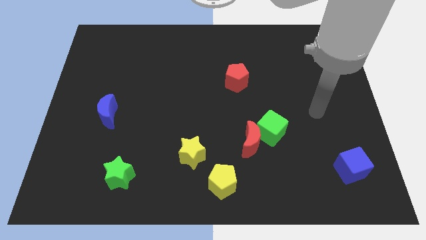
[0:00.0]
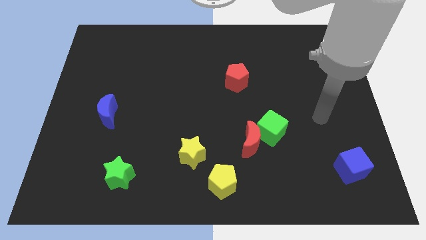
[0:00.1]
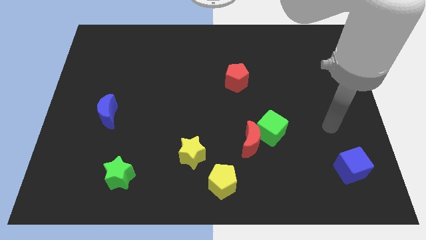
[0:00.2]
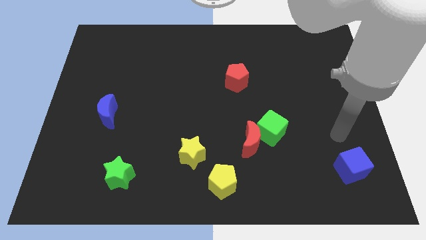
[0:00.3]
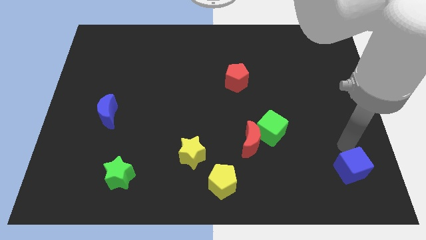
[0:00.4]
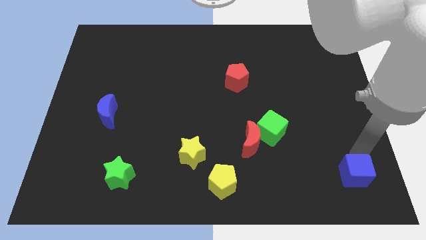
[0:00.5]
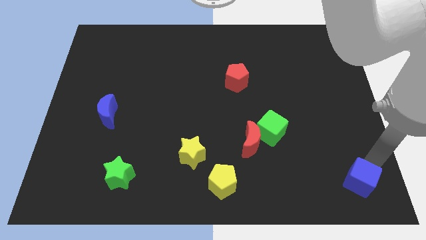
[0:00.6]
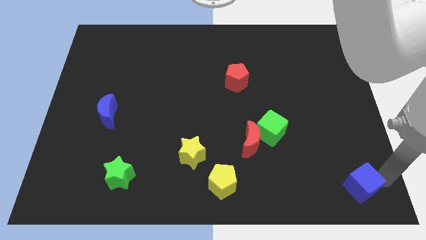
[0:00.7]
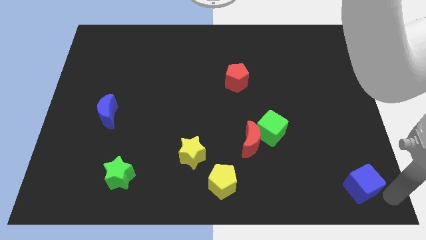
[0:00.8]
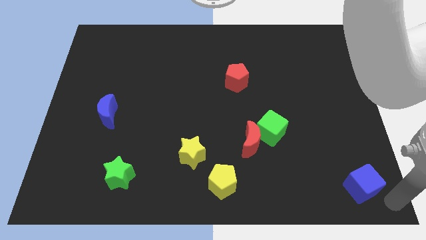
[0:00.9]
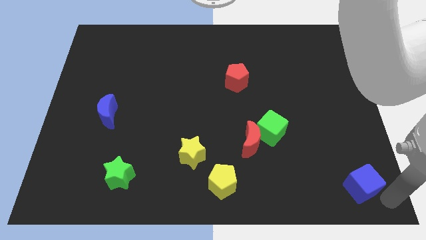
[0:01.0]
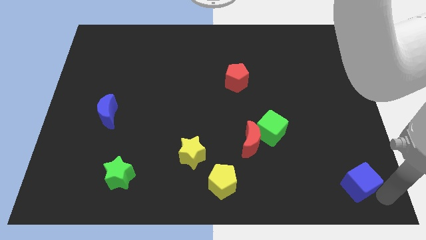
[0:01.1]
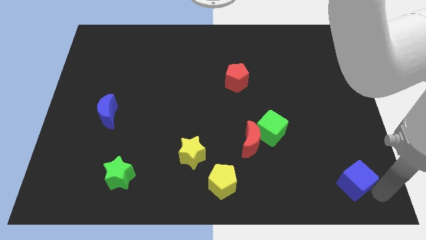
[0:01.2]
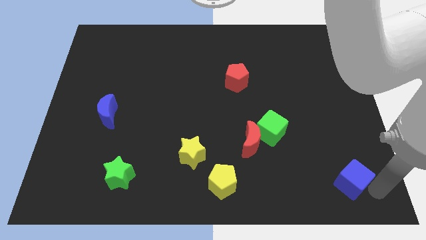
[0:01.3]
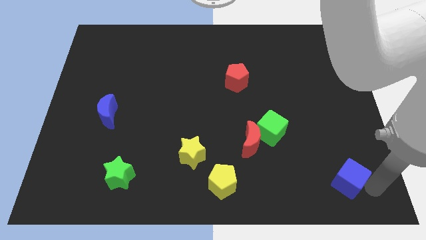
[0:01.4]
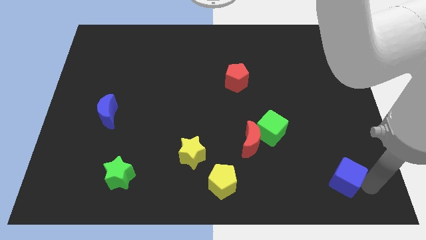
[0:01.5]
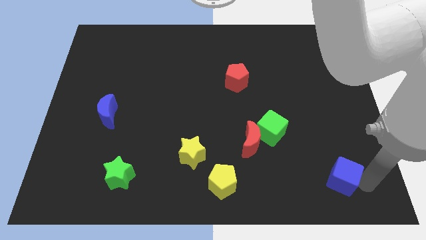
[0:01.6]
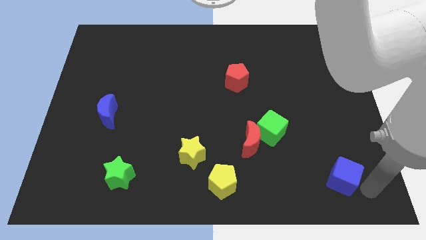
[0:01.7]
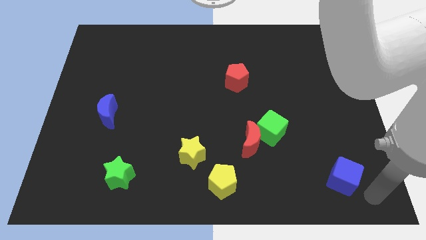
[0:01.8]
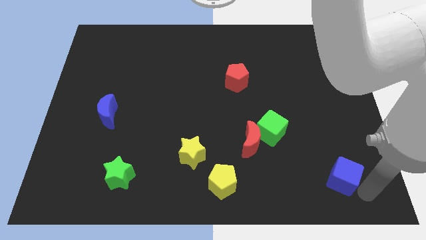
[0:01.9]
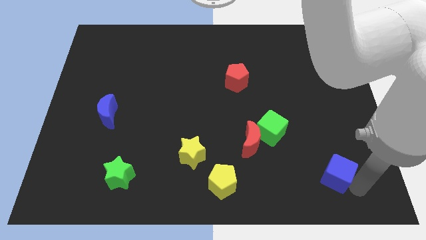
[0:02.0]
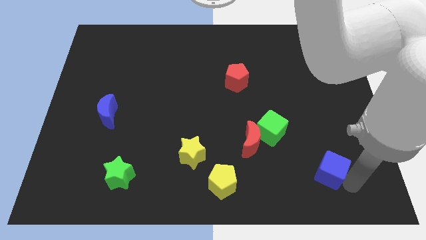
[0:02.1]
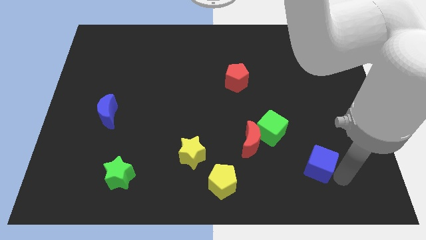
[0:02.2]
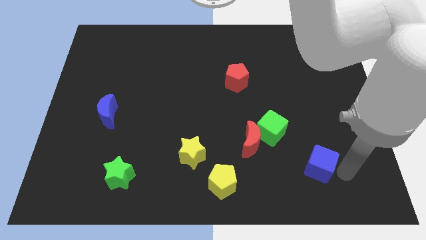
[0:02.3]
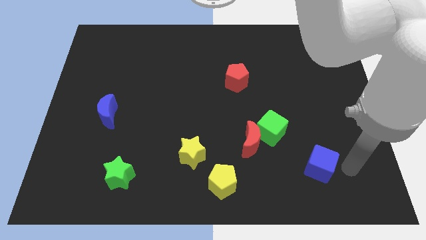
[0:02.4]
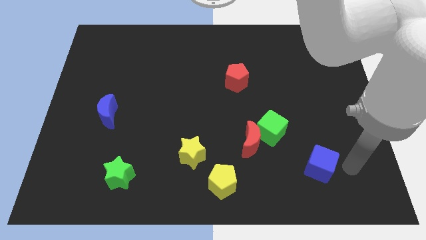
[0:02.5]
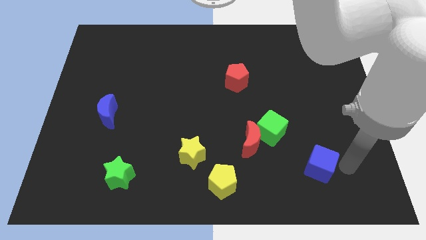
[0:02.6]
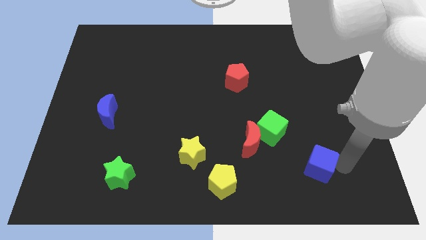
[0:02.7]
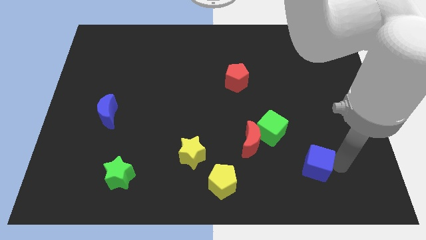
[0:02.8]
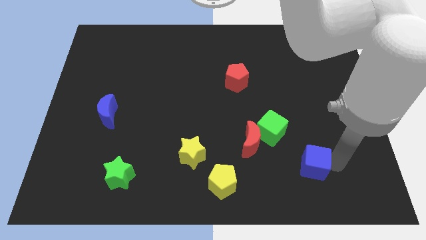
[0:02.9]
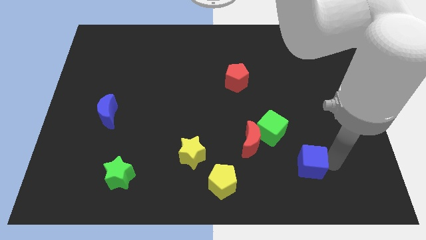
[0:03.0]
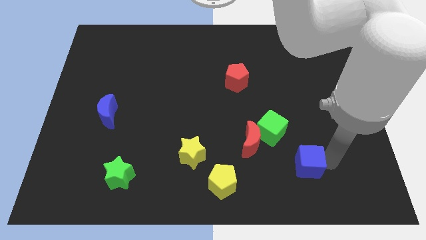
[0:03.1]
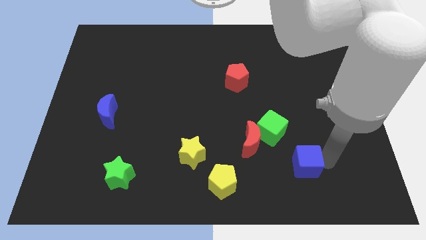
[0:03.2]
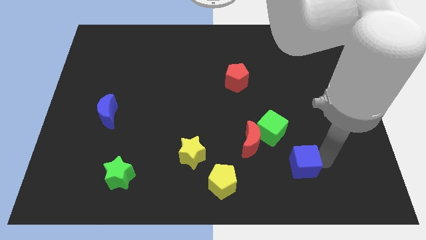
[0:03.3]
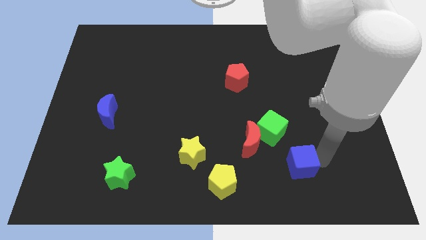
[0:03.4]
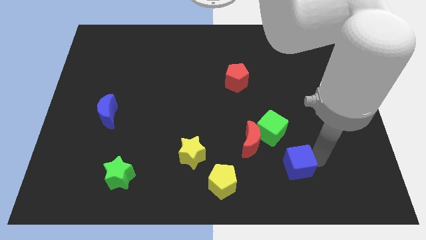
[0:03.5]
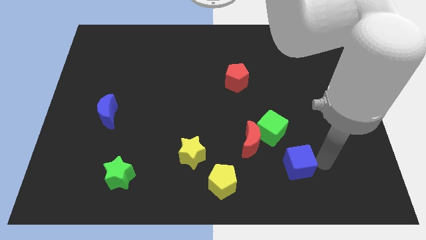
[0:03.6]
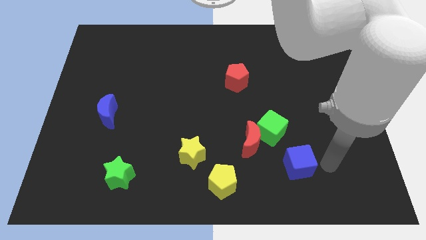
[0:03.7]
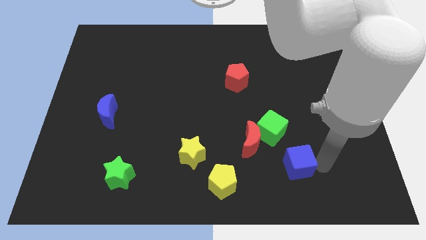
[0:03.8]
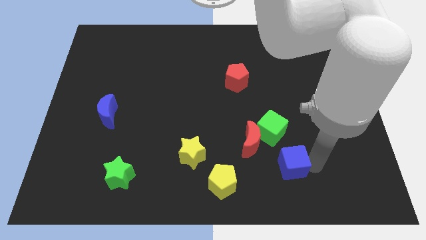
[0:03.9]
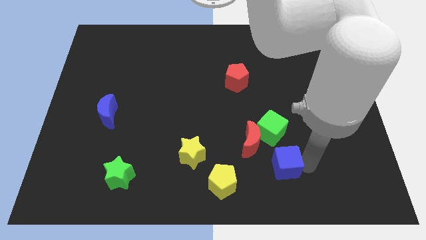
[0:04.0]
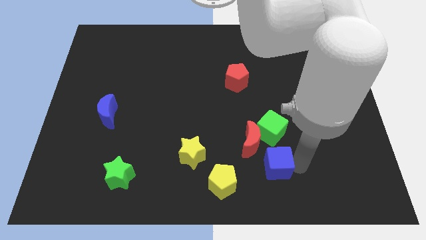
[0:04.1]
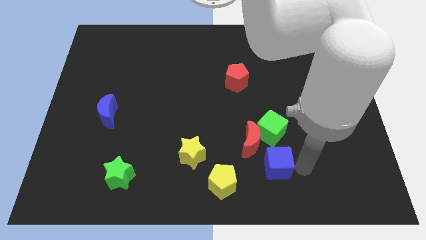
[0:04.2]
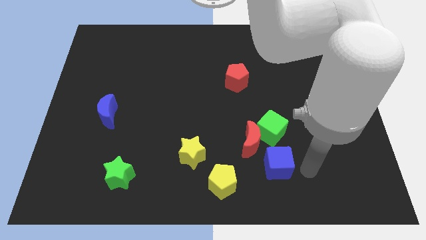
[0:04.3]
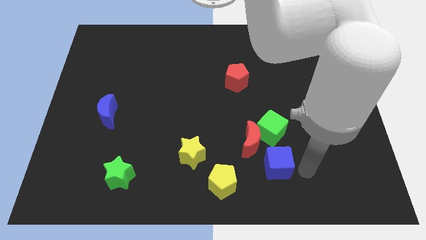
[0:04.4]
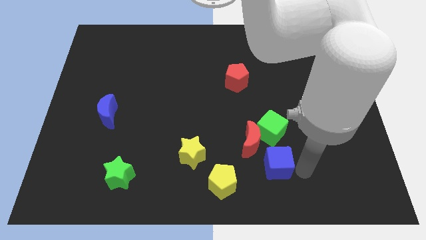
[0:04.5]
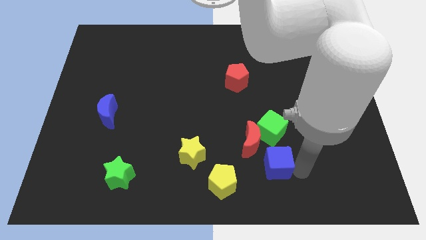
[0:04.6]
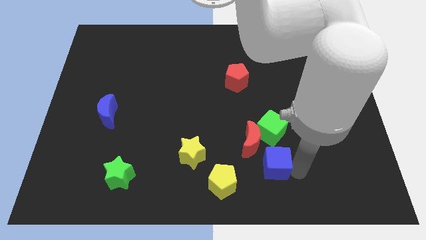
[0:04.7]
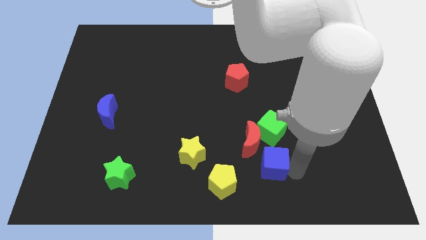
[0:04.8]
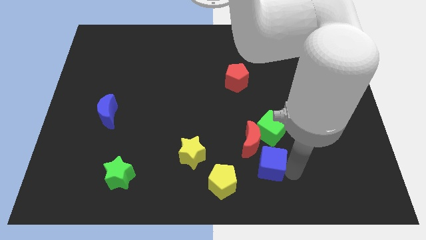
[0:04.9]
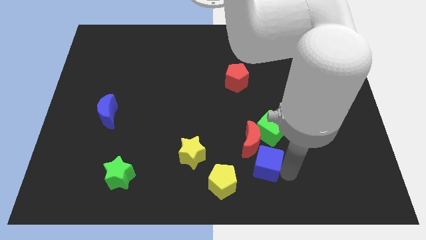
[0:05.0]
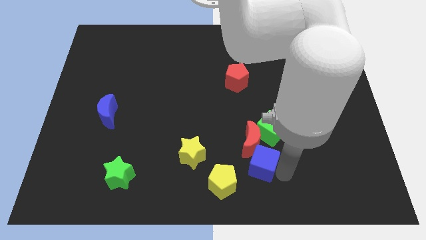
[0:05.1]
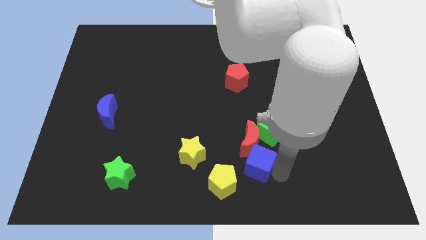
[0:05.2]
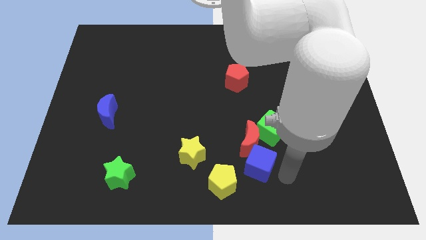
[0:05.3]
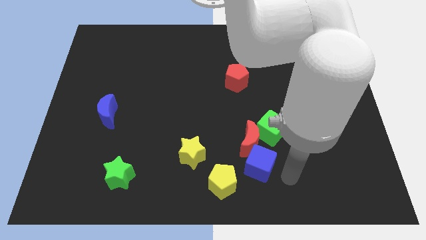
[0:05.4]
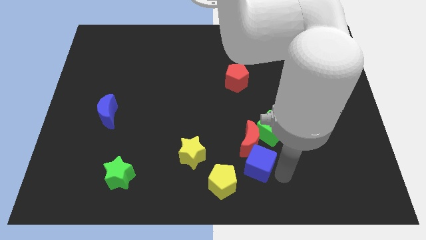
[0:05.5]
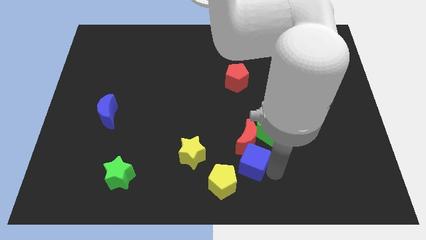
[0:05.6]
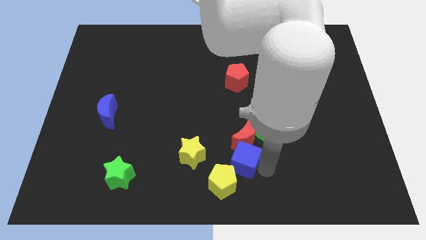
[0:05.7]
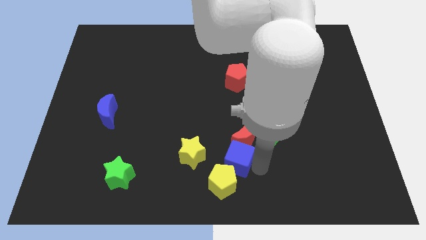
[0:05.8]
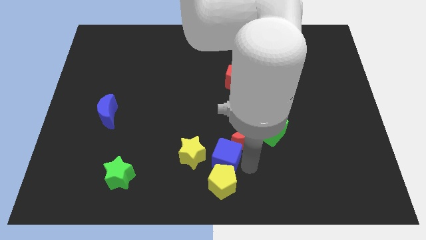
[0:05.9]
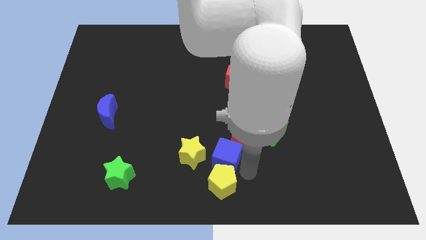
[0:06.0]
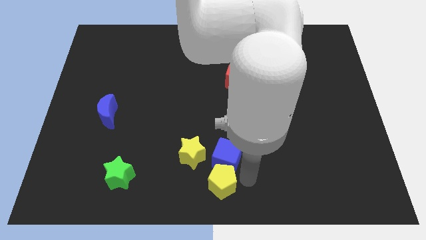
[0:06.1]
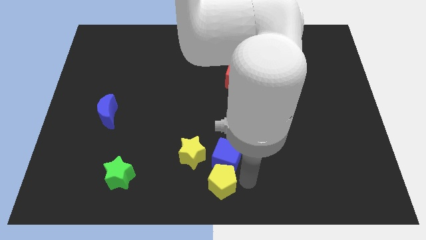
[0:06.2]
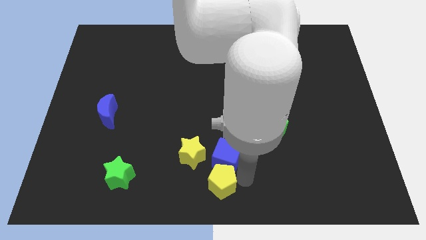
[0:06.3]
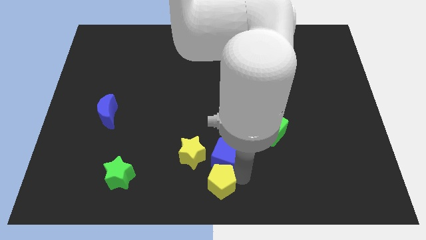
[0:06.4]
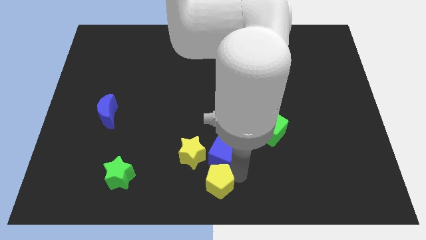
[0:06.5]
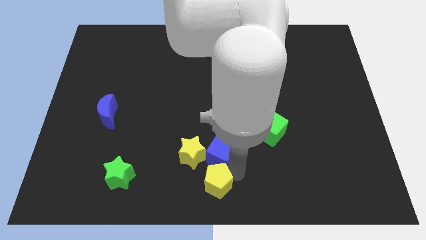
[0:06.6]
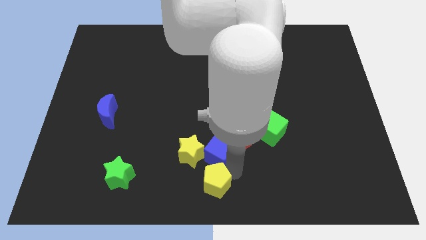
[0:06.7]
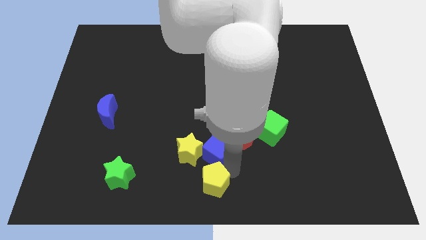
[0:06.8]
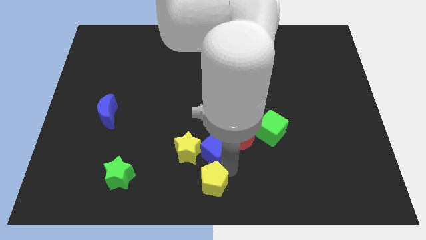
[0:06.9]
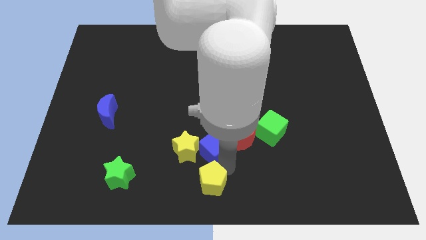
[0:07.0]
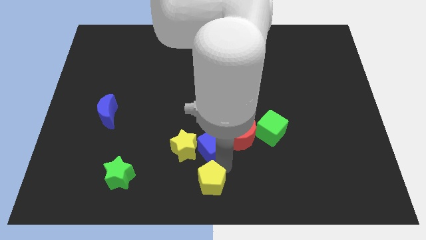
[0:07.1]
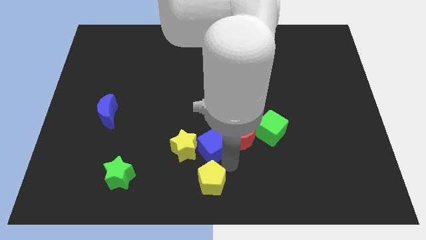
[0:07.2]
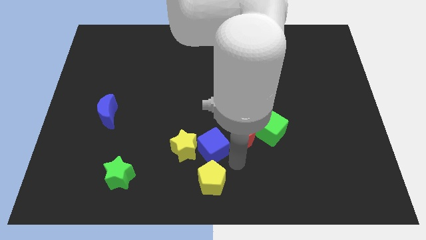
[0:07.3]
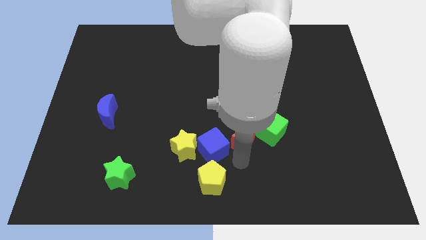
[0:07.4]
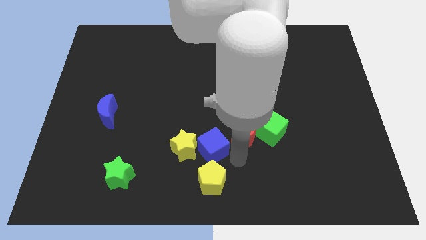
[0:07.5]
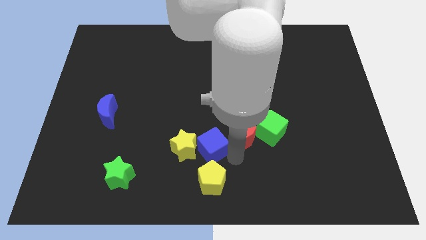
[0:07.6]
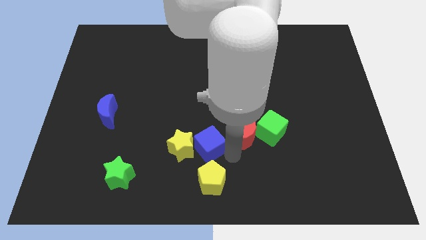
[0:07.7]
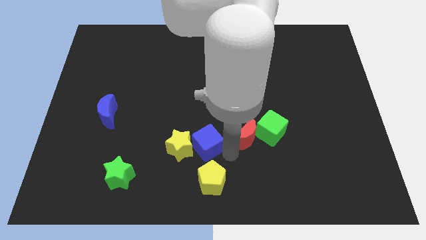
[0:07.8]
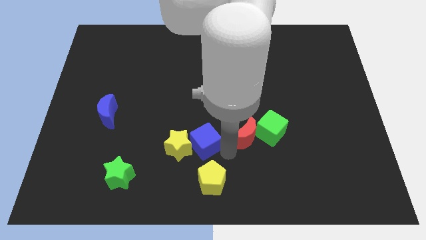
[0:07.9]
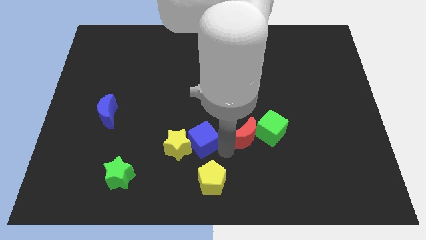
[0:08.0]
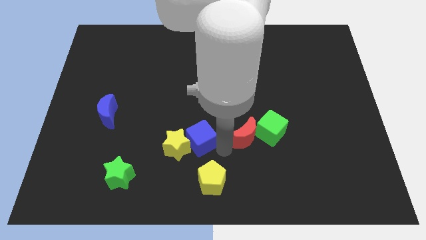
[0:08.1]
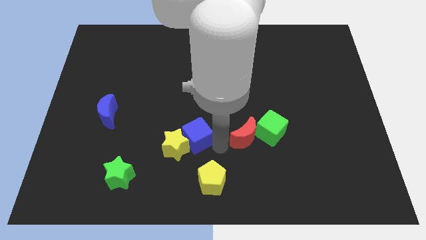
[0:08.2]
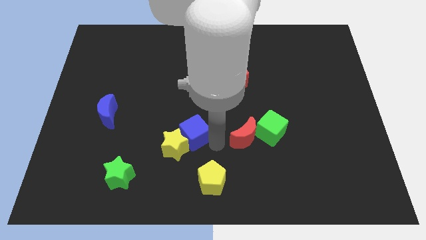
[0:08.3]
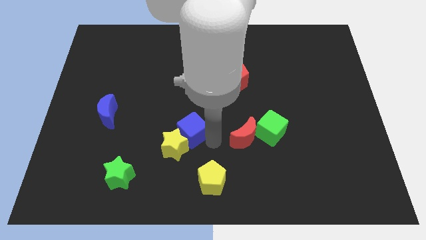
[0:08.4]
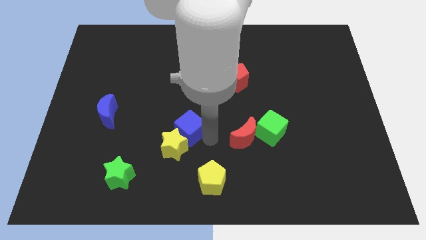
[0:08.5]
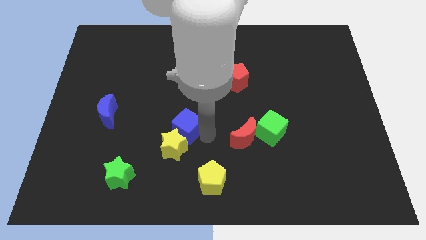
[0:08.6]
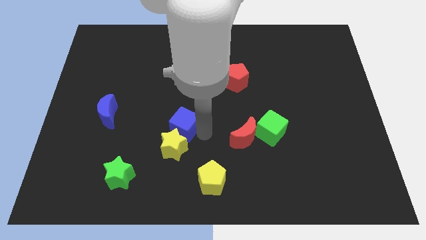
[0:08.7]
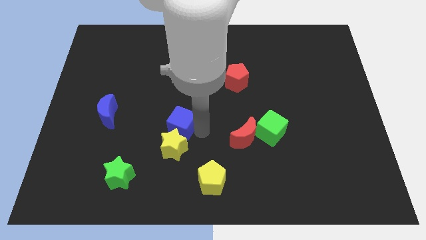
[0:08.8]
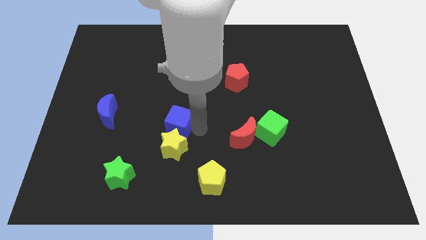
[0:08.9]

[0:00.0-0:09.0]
push the blue cube diagonally up and to the left of the yellow star

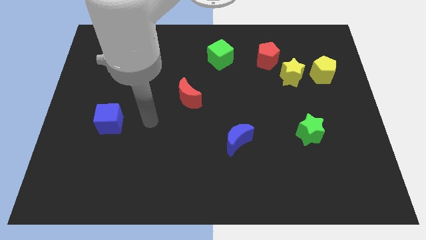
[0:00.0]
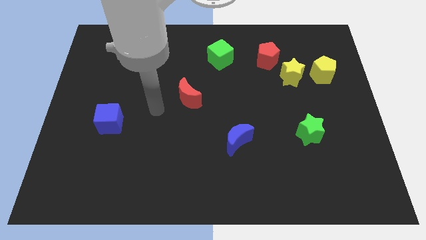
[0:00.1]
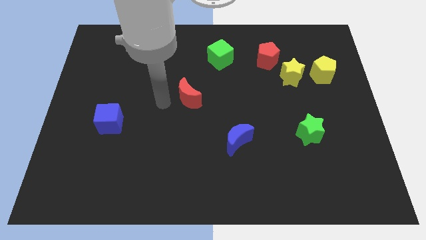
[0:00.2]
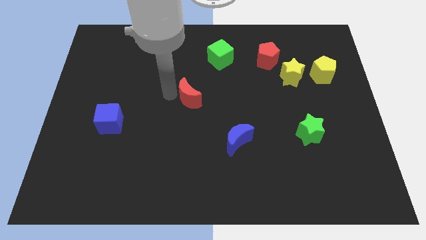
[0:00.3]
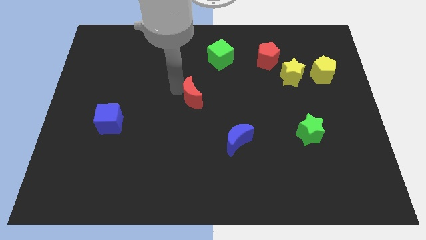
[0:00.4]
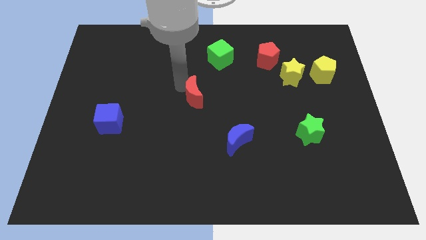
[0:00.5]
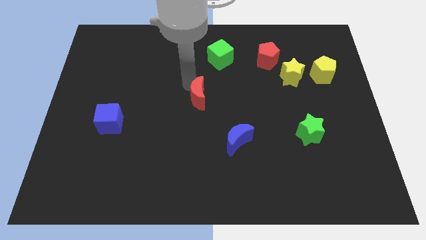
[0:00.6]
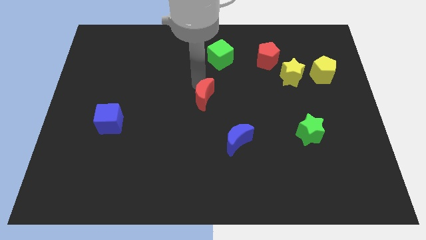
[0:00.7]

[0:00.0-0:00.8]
put the green cube to the top of the red moon
